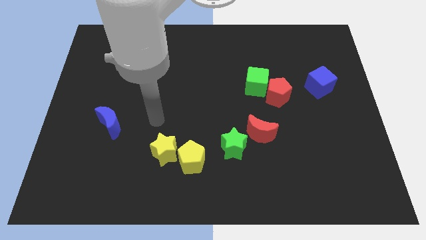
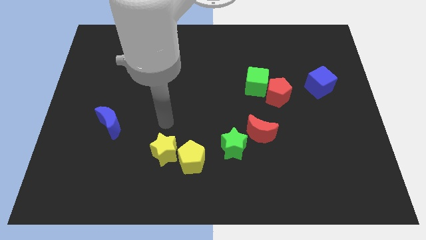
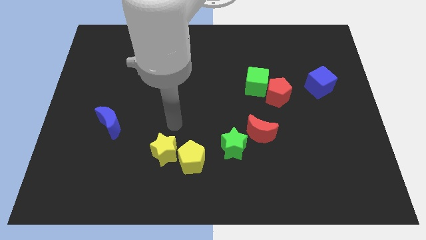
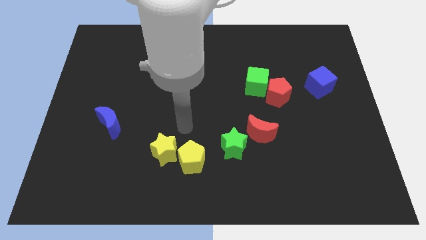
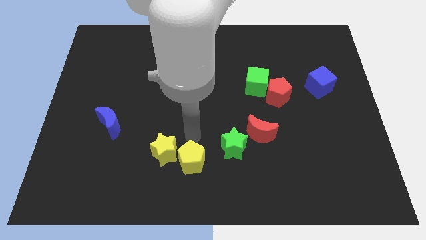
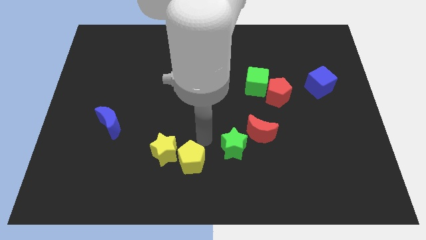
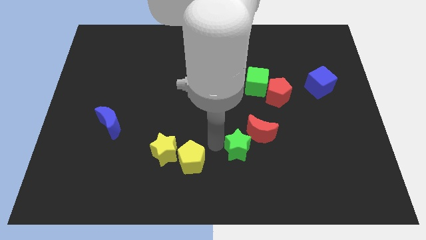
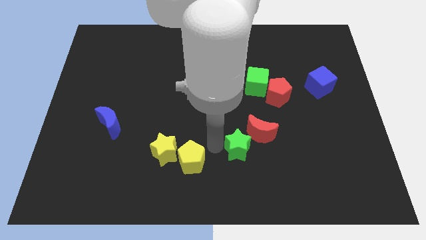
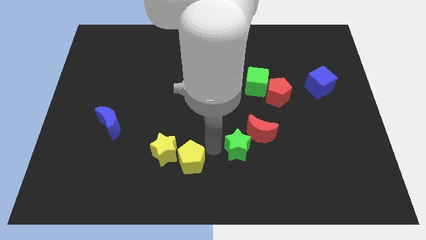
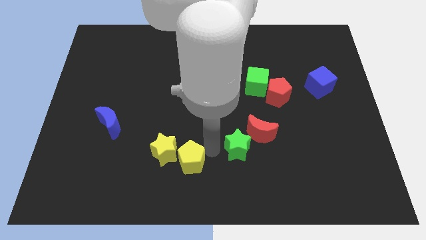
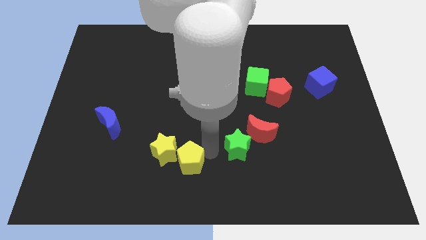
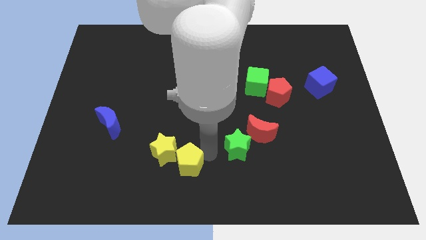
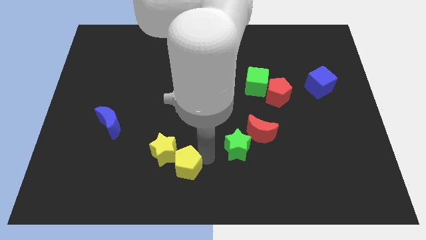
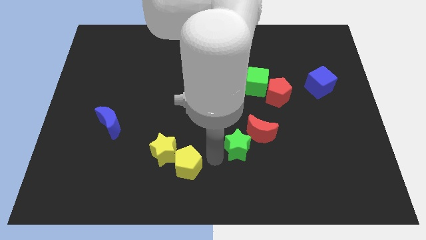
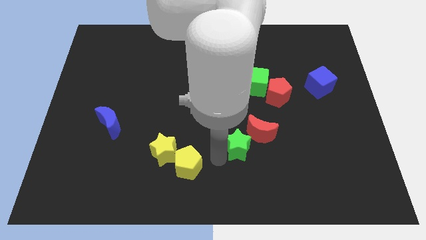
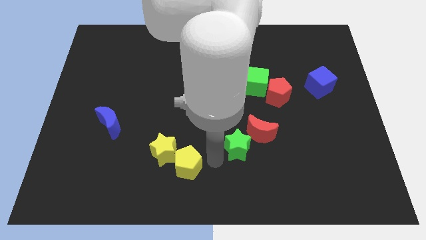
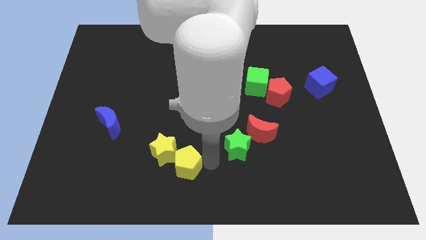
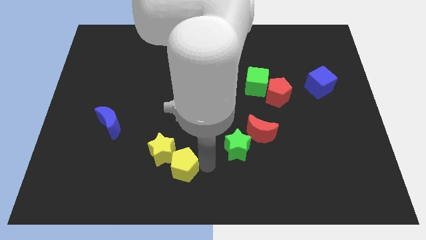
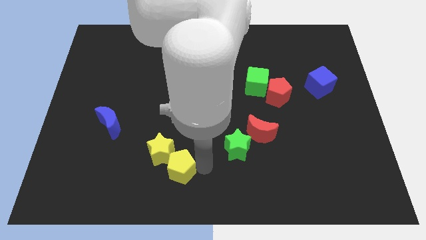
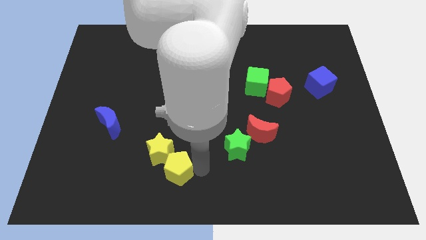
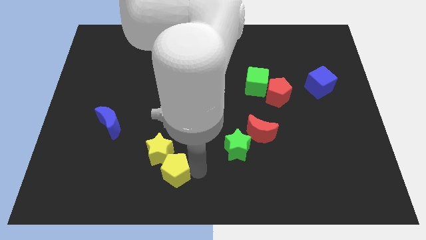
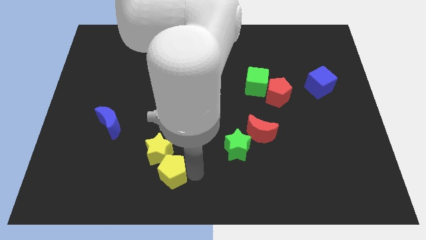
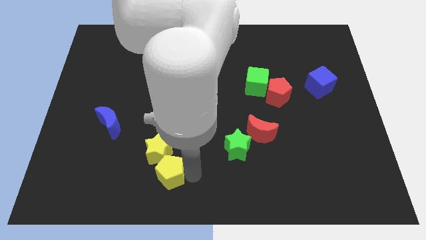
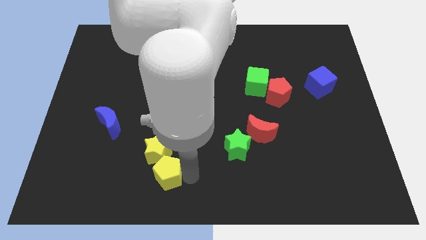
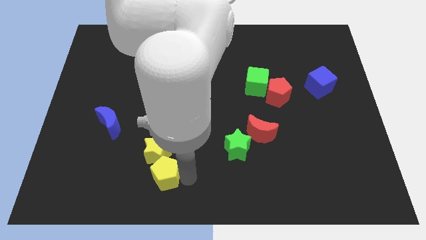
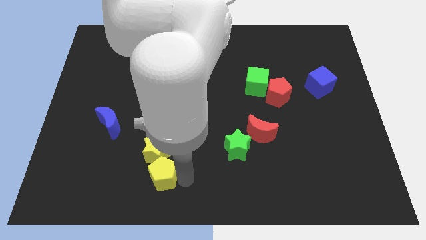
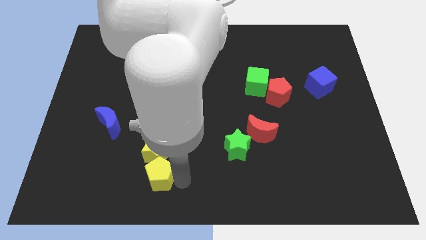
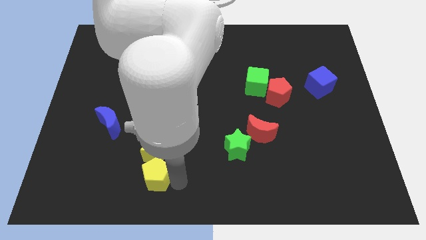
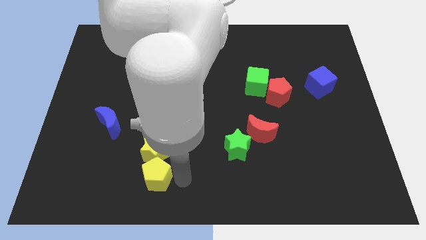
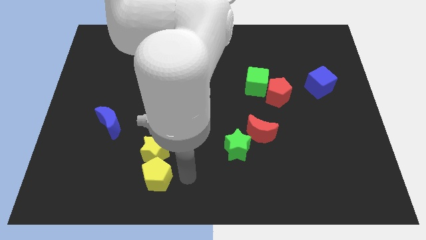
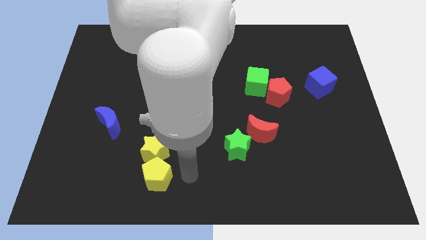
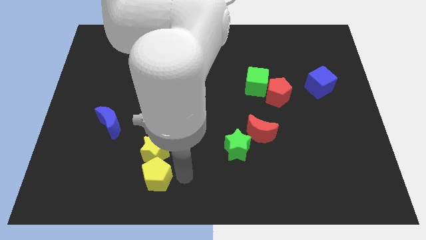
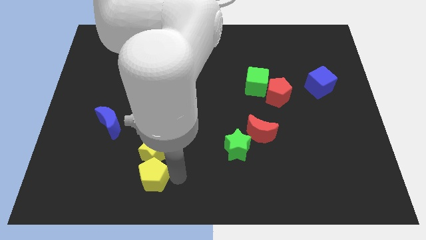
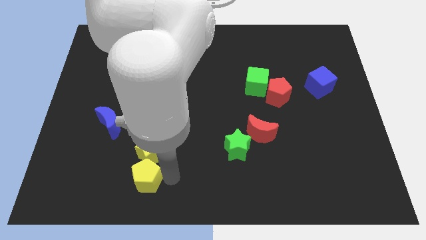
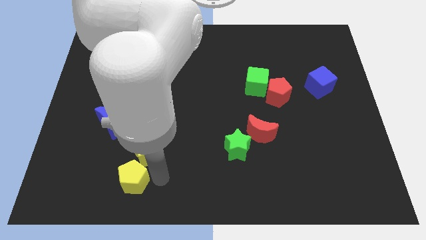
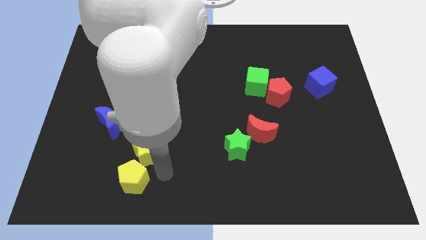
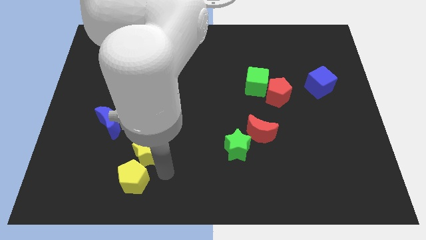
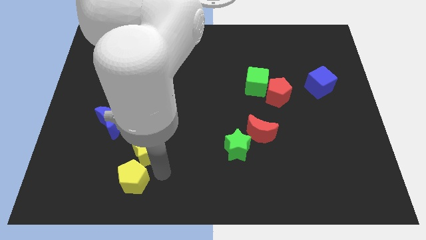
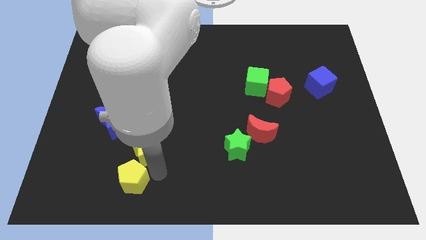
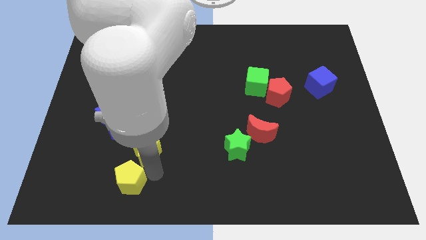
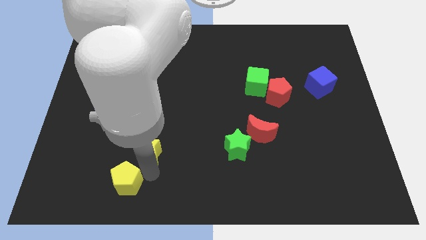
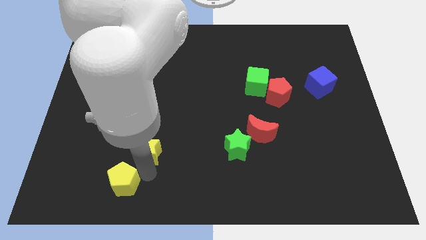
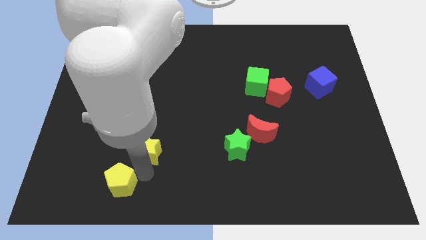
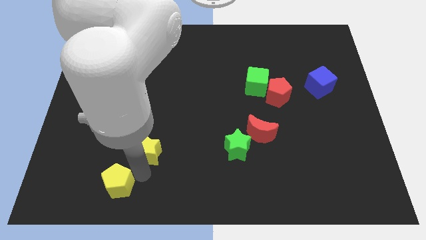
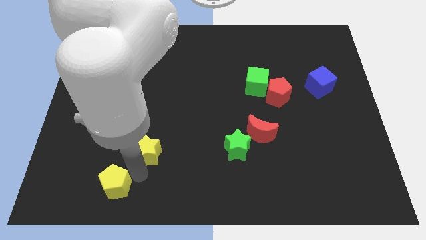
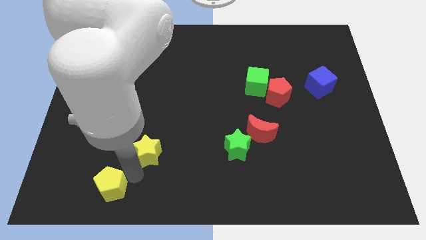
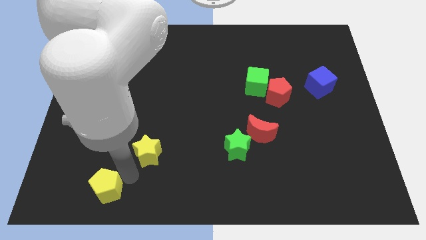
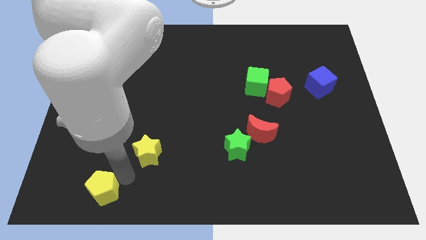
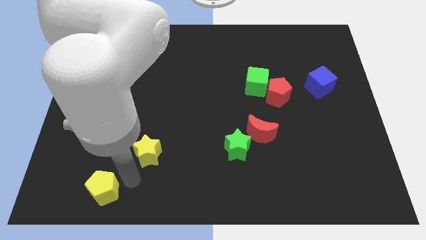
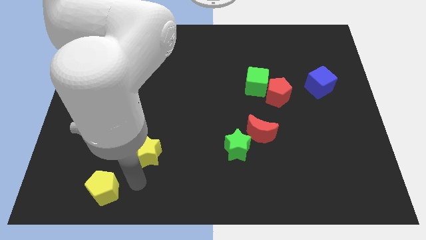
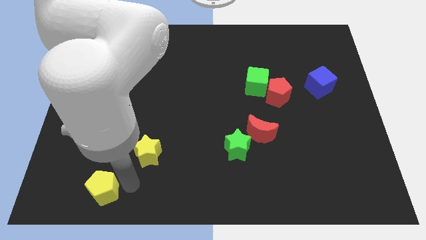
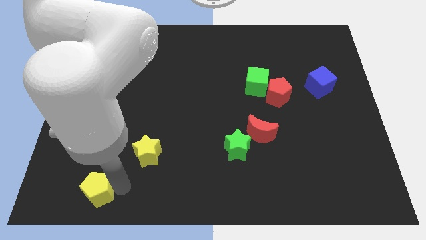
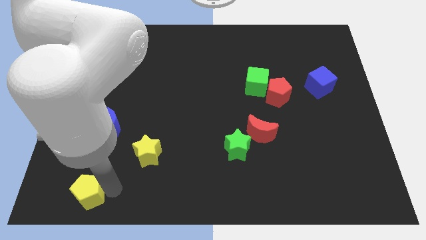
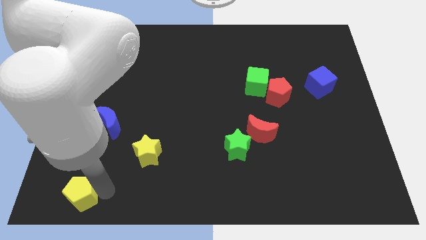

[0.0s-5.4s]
push the yellow pentagon to the bottom left of the board

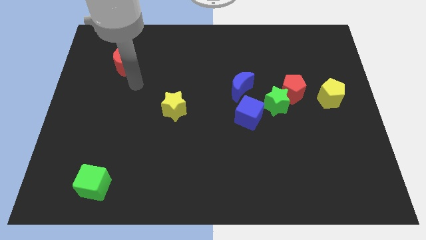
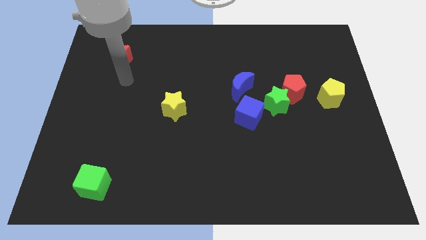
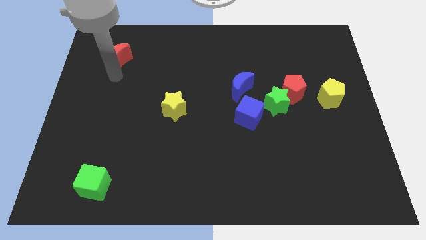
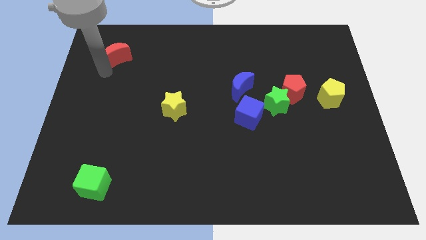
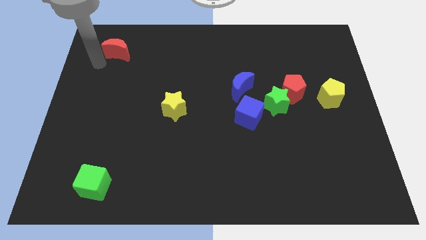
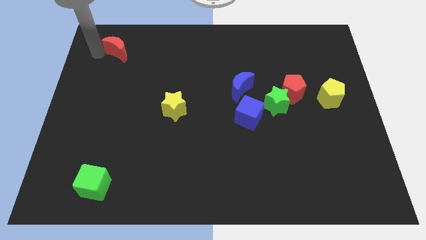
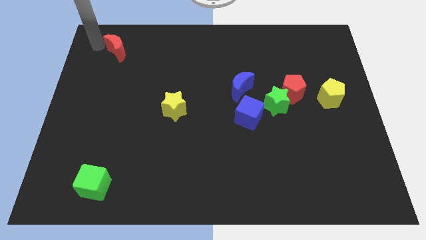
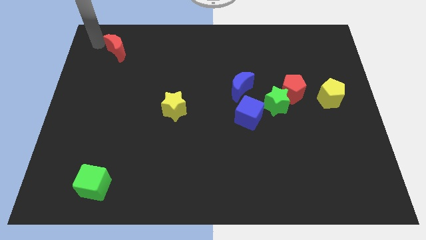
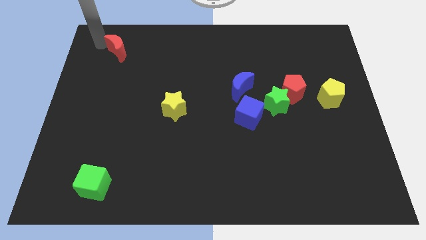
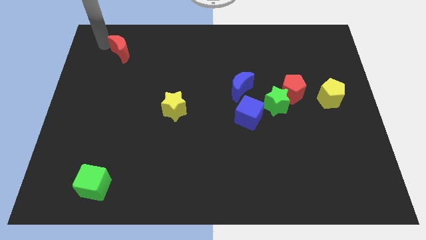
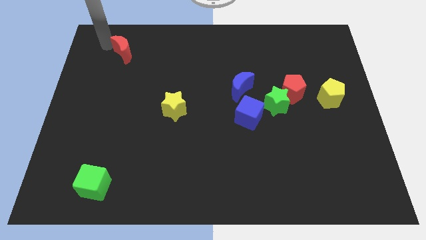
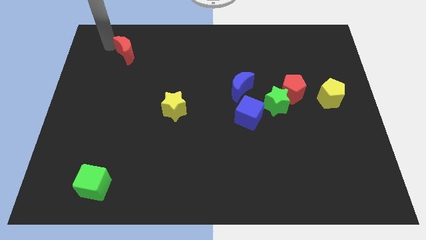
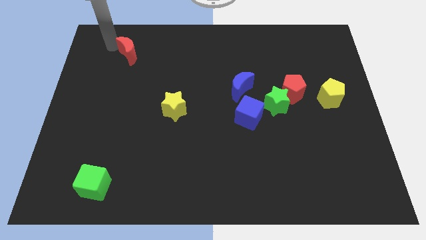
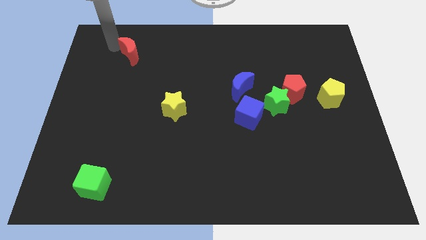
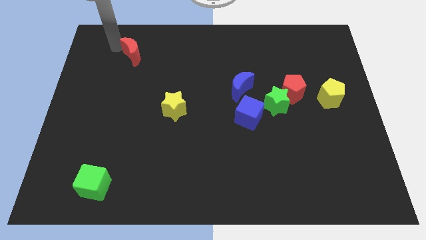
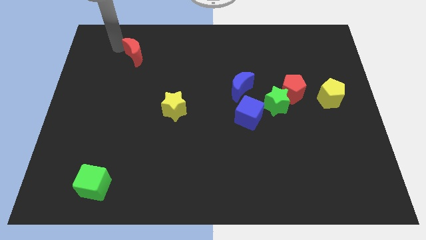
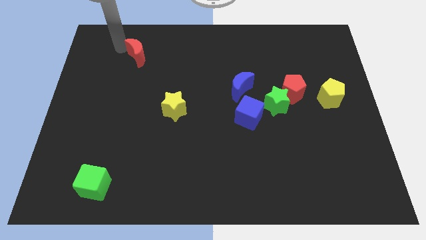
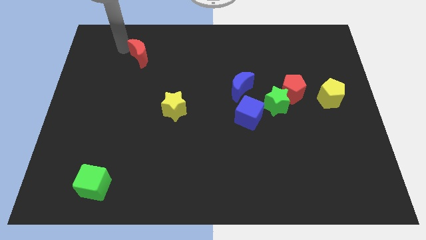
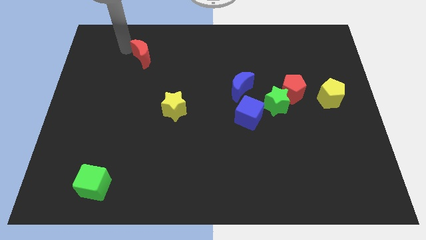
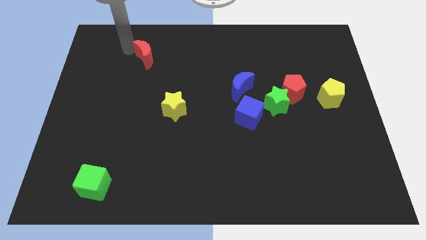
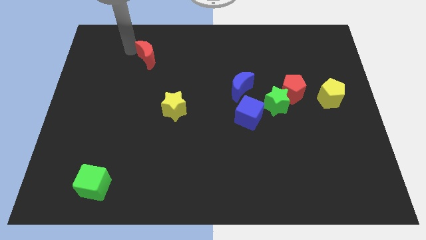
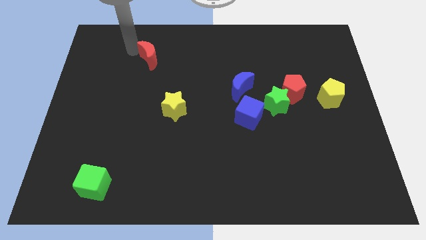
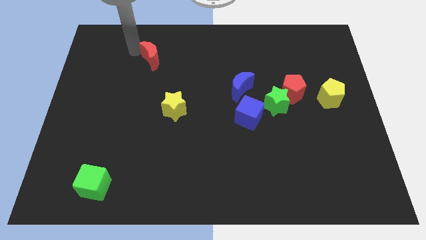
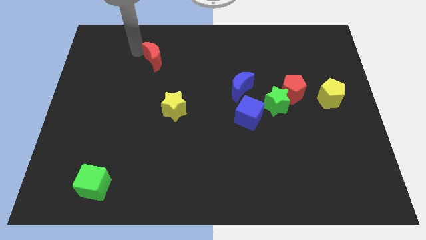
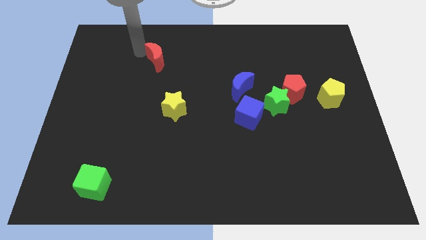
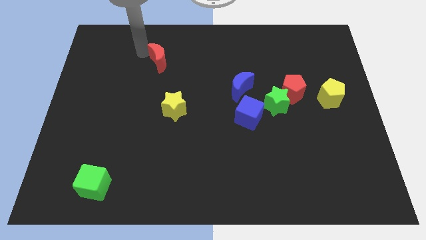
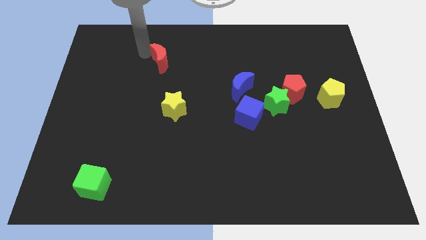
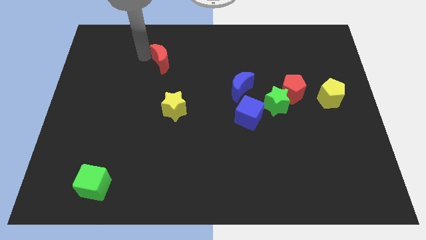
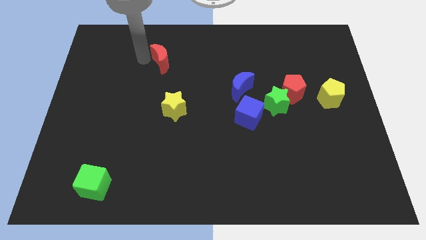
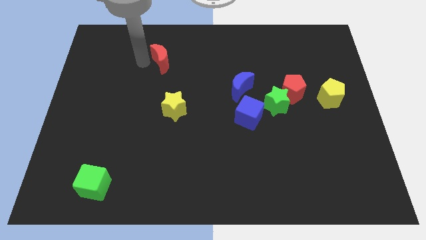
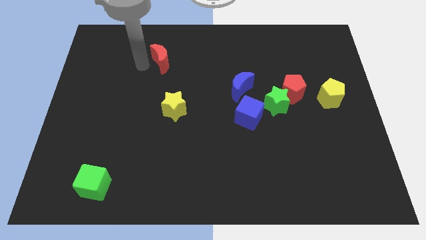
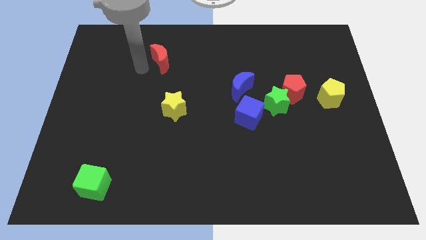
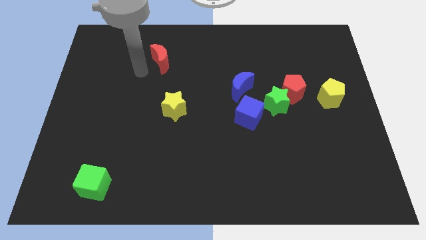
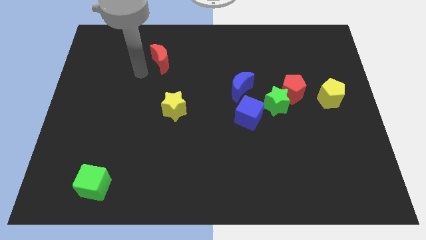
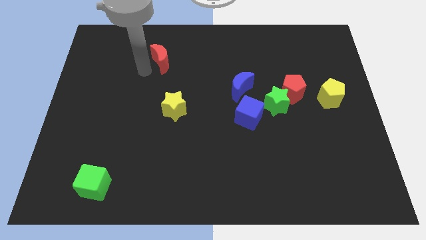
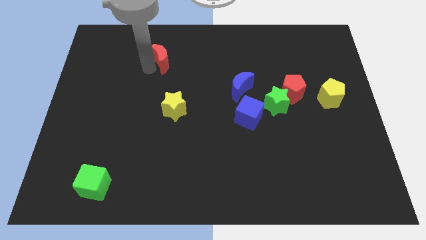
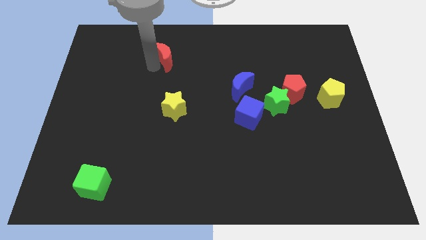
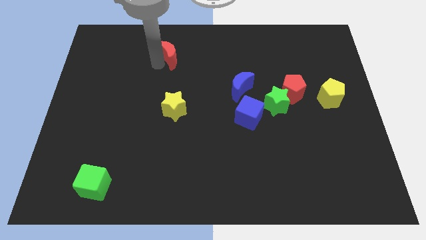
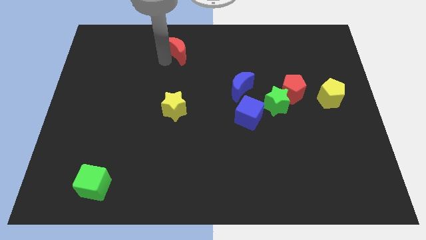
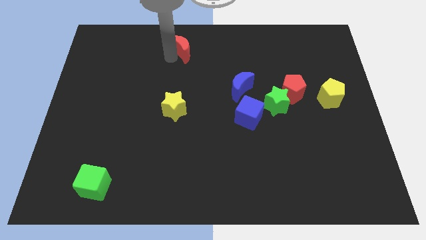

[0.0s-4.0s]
slide the red moon to the top side
